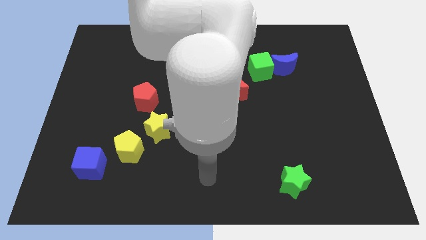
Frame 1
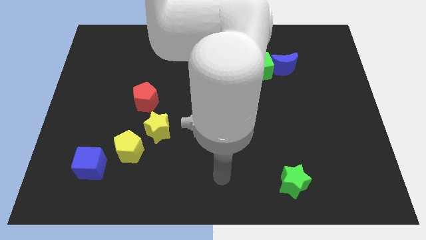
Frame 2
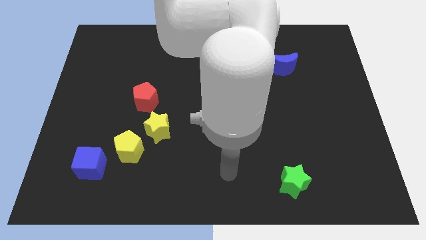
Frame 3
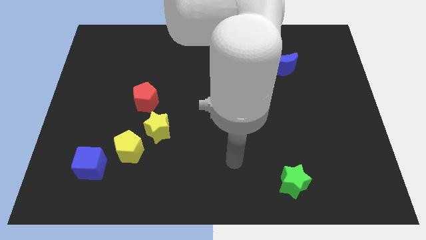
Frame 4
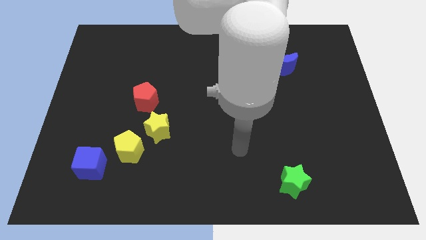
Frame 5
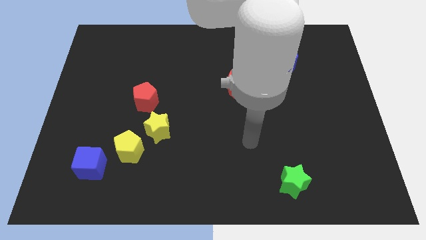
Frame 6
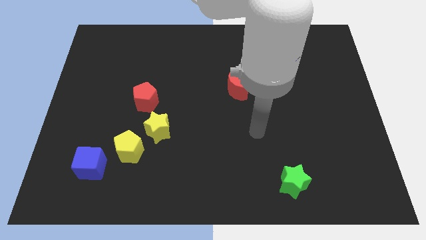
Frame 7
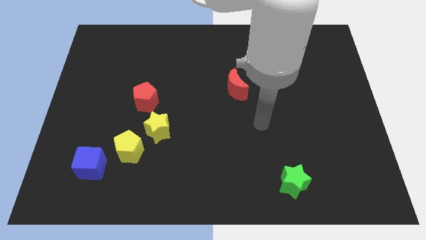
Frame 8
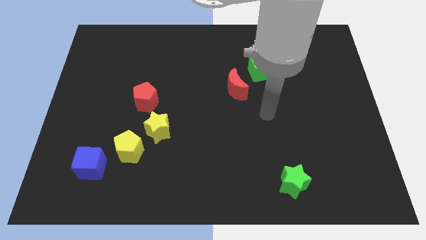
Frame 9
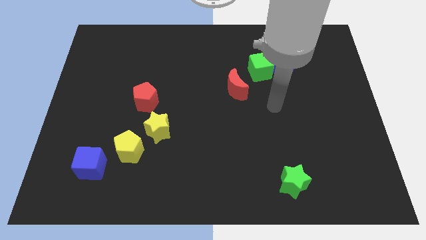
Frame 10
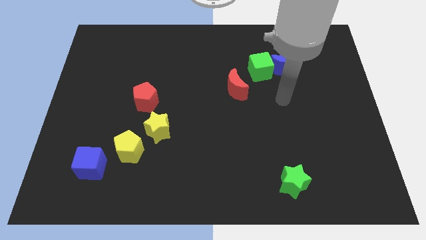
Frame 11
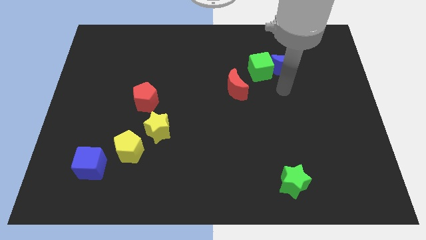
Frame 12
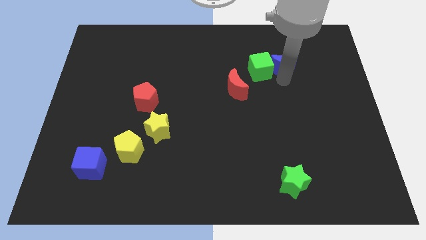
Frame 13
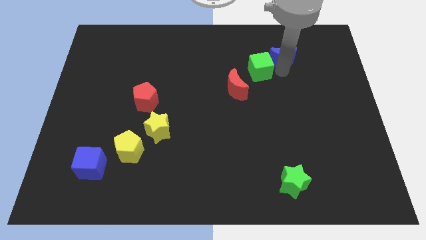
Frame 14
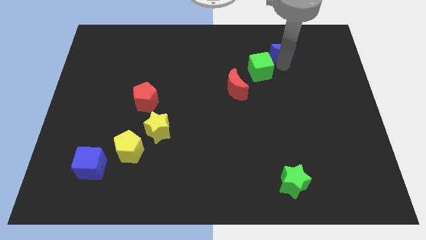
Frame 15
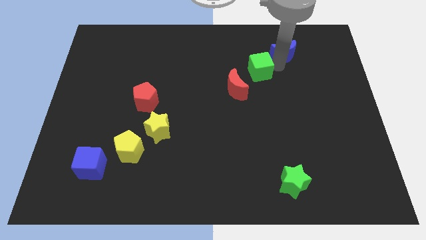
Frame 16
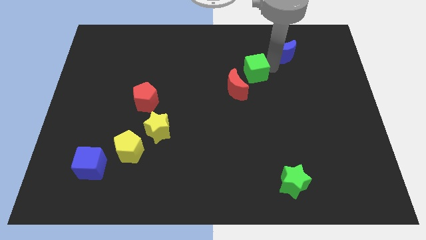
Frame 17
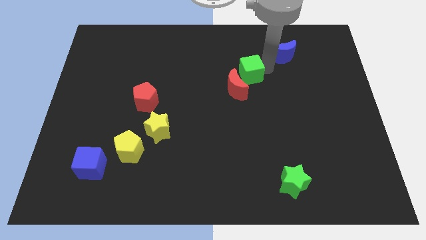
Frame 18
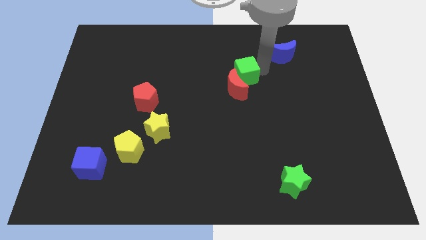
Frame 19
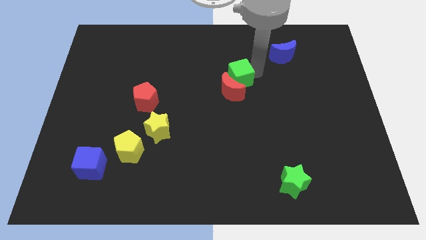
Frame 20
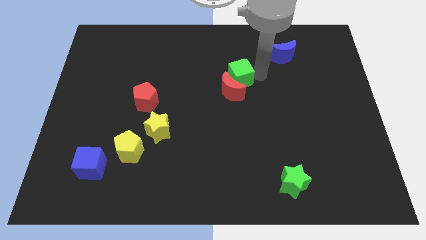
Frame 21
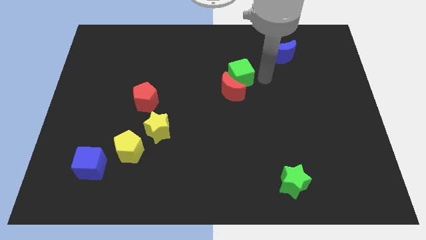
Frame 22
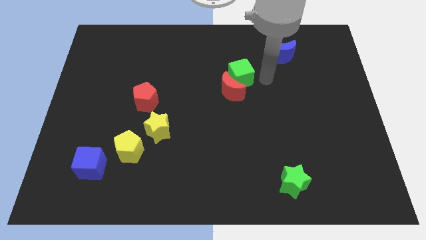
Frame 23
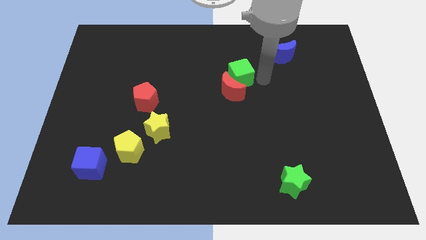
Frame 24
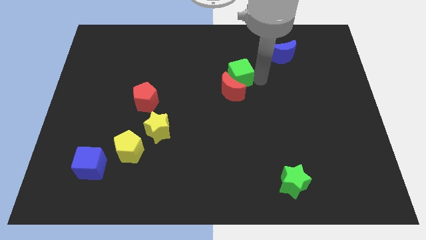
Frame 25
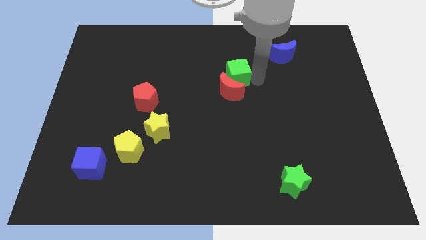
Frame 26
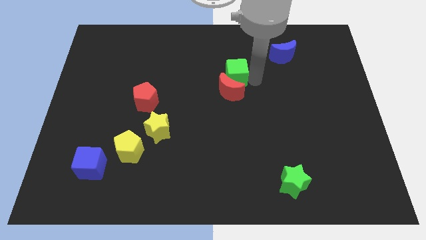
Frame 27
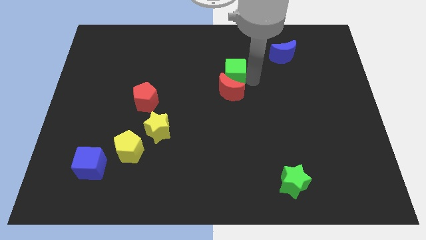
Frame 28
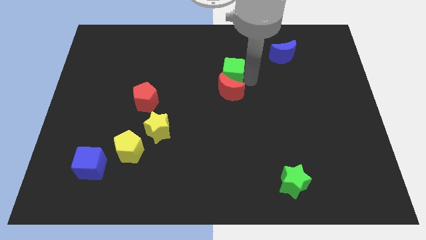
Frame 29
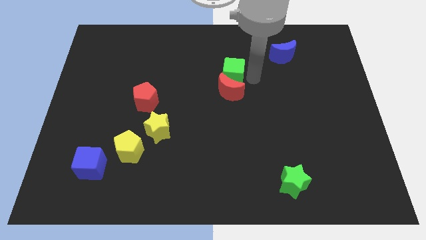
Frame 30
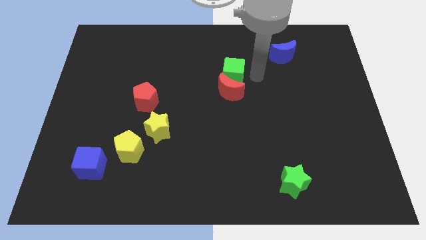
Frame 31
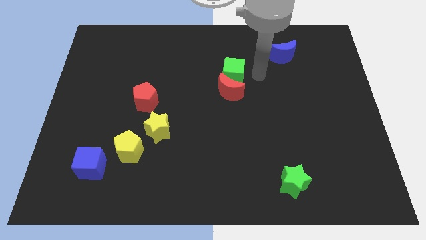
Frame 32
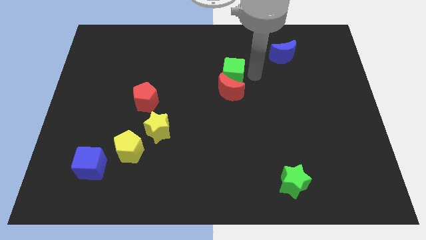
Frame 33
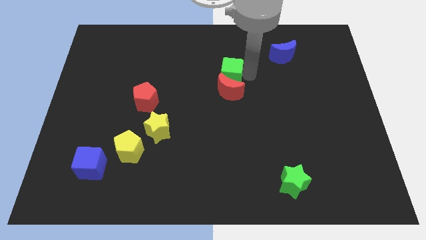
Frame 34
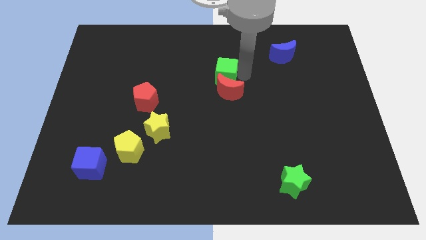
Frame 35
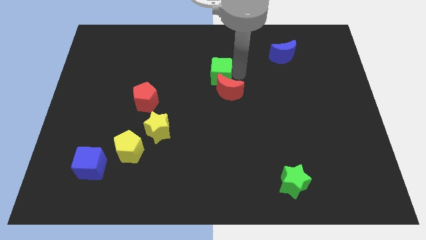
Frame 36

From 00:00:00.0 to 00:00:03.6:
push the green cube slightly diagonally down and left

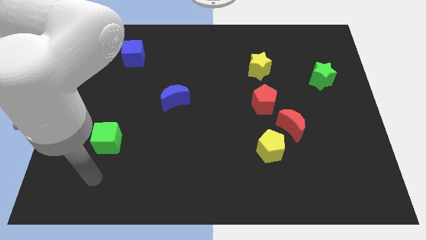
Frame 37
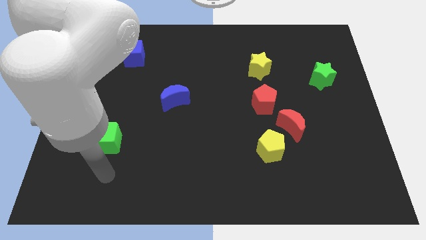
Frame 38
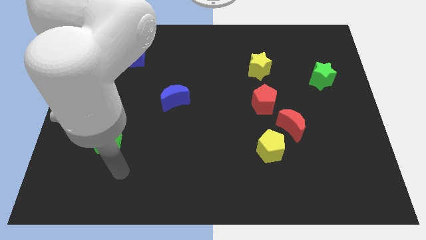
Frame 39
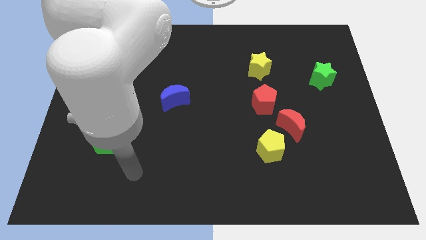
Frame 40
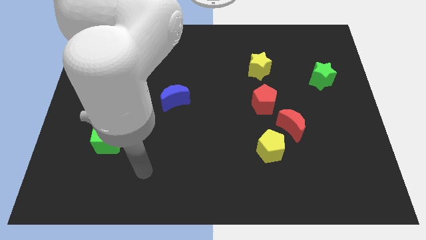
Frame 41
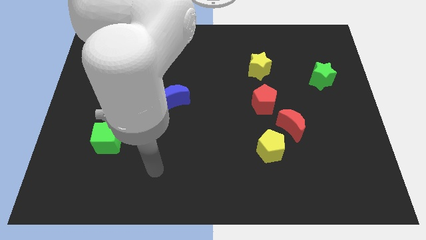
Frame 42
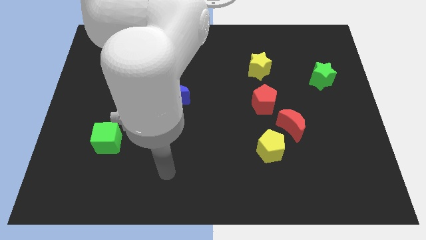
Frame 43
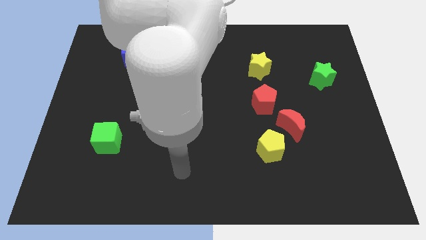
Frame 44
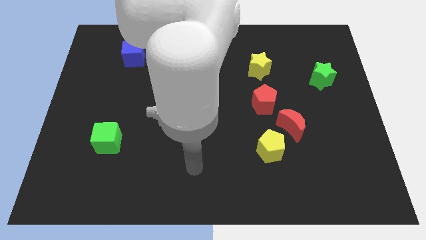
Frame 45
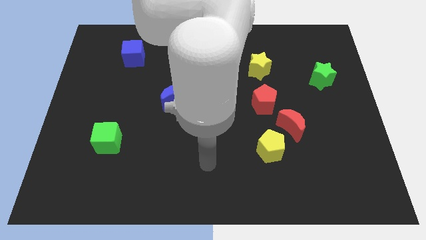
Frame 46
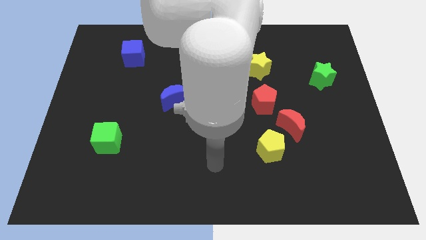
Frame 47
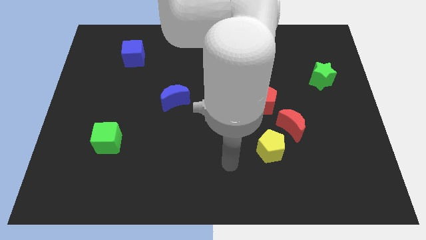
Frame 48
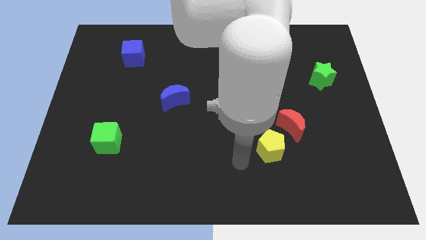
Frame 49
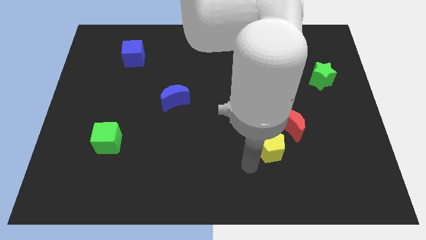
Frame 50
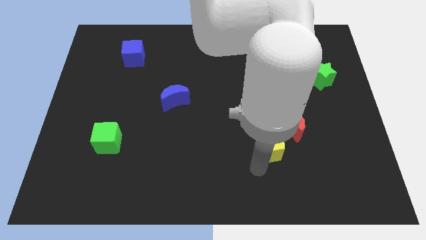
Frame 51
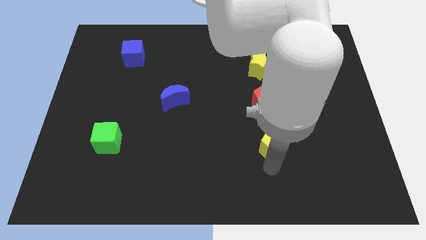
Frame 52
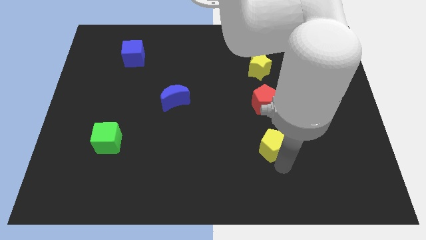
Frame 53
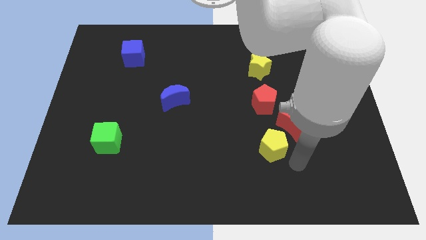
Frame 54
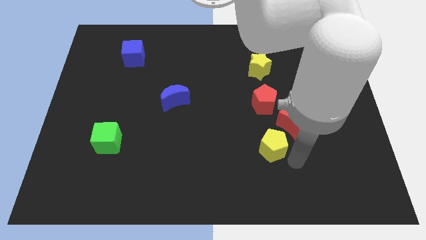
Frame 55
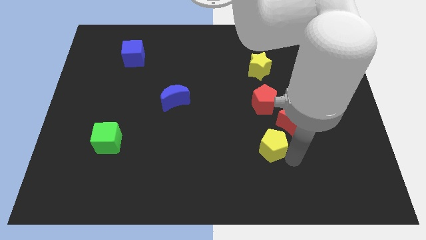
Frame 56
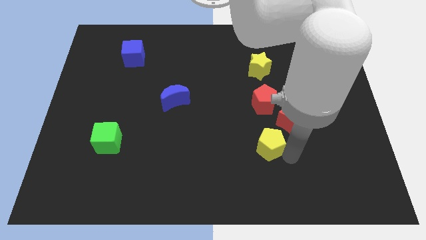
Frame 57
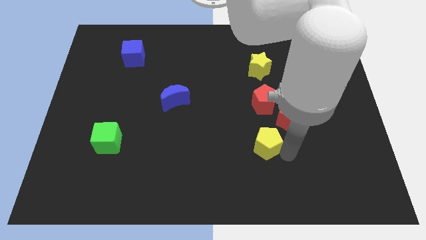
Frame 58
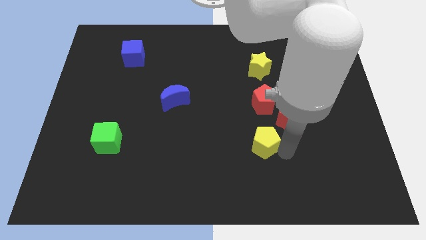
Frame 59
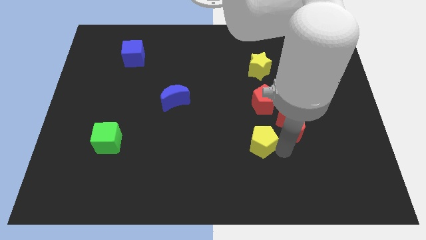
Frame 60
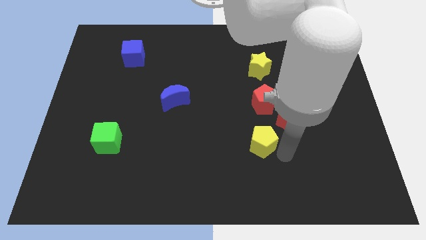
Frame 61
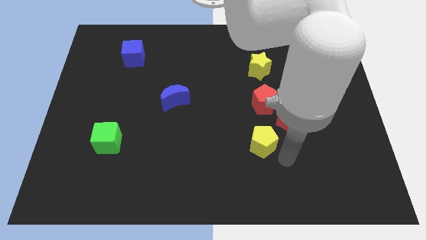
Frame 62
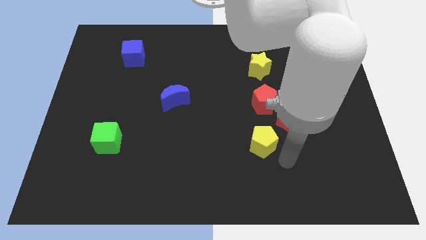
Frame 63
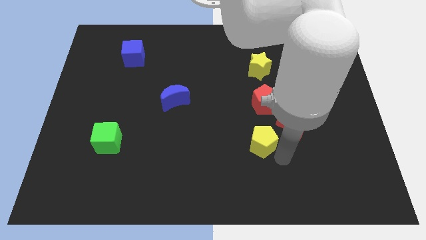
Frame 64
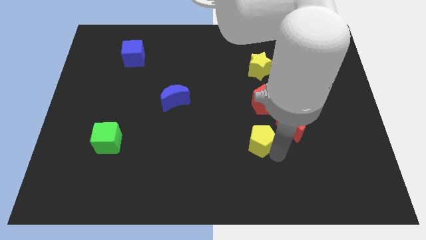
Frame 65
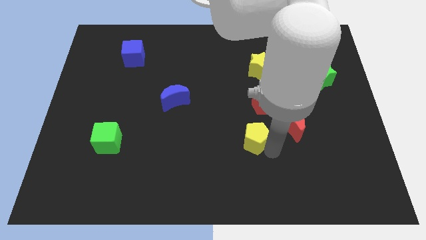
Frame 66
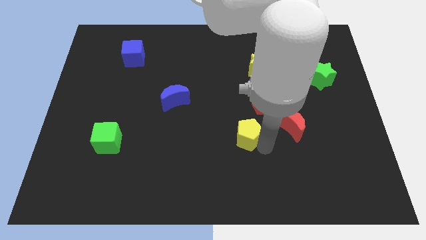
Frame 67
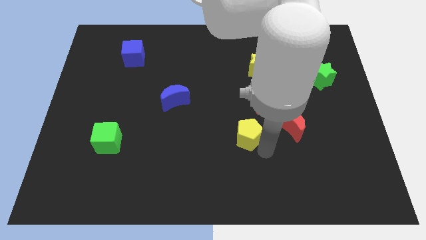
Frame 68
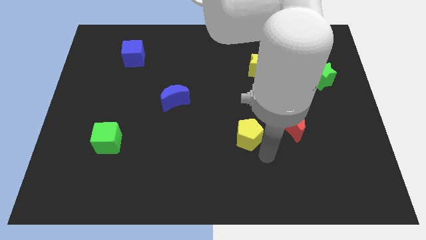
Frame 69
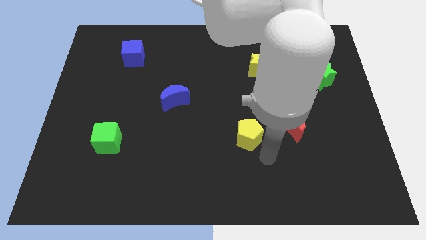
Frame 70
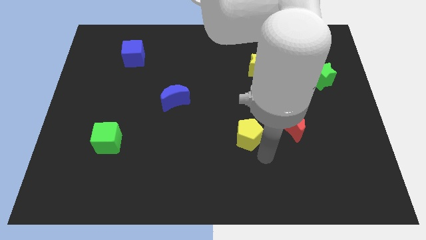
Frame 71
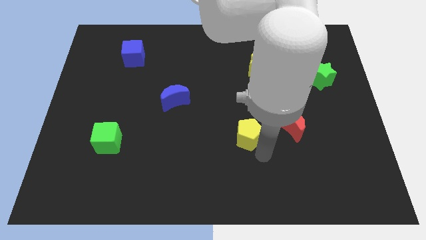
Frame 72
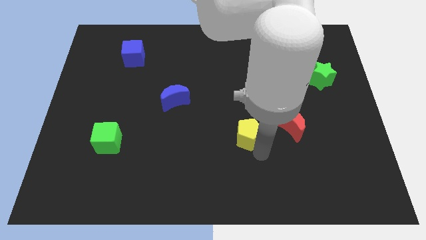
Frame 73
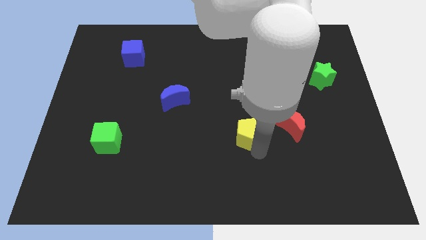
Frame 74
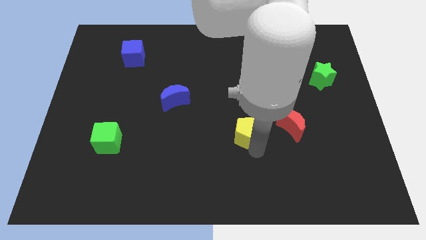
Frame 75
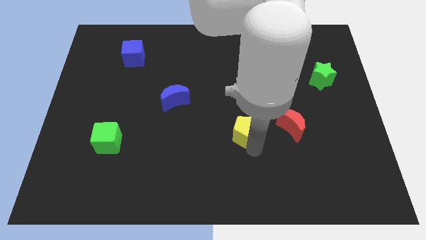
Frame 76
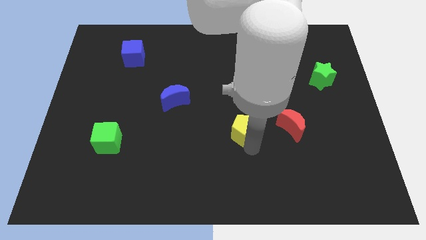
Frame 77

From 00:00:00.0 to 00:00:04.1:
slide the yellow pentagon diagonally up and to the left somewhat

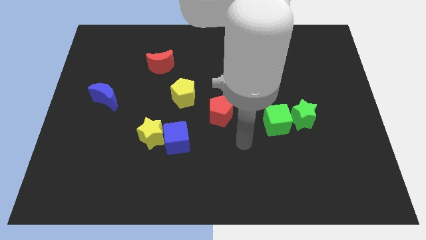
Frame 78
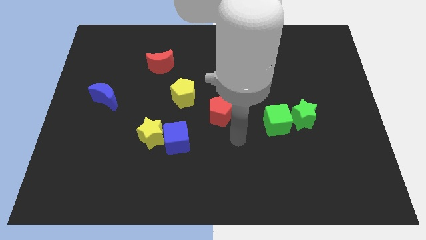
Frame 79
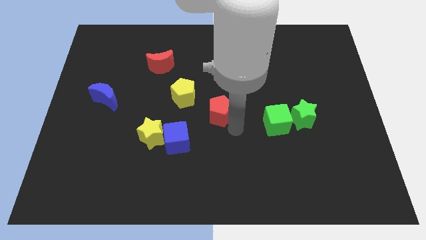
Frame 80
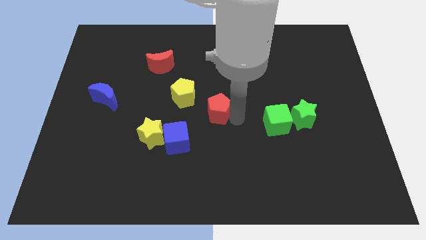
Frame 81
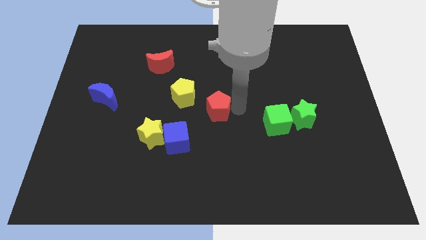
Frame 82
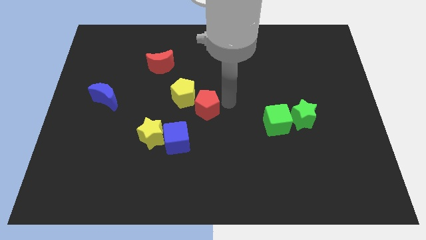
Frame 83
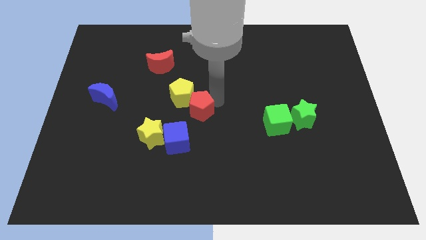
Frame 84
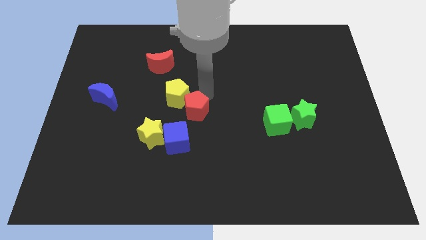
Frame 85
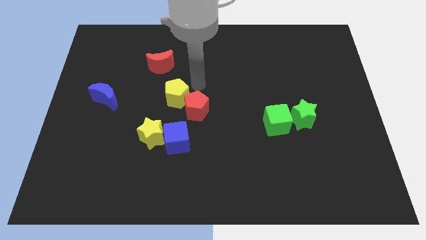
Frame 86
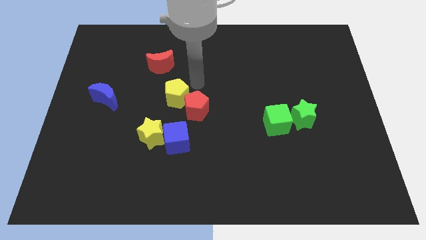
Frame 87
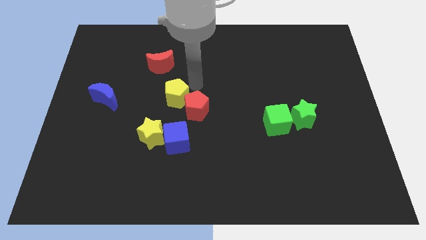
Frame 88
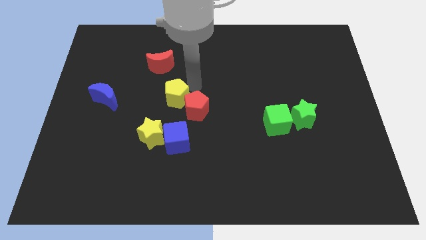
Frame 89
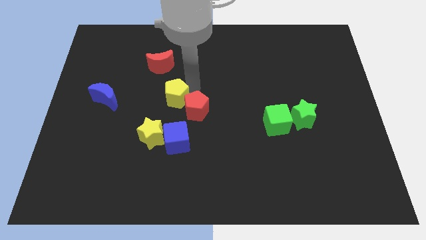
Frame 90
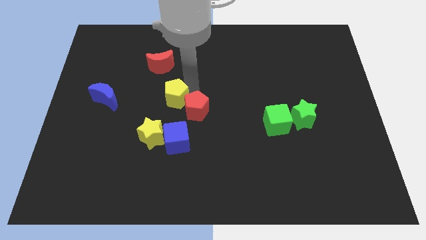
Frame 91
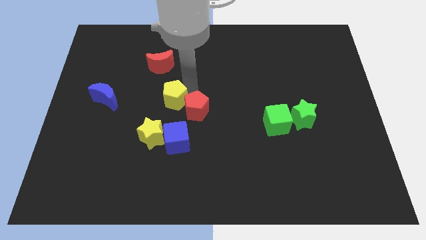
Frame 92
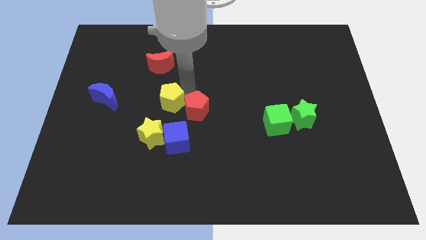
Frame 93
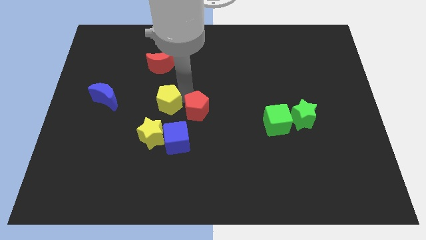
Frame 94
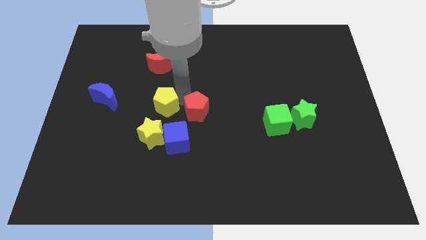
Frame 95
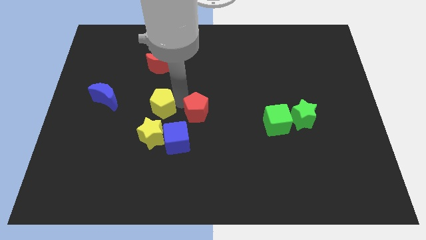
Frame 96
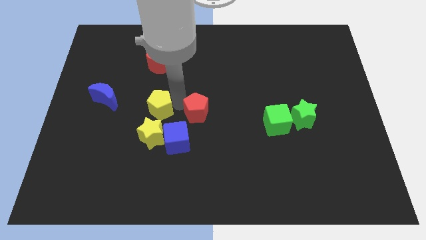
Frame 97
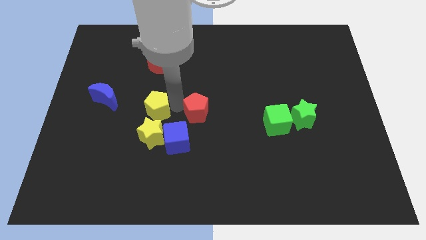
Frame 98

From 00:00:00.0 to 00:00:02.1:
slide the yellow pentagon down and to the left somewhat
